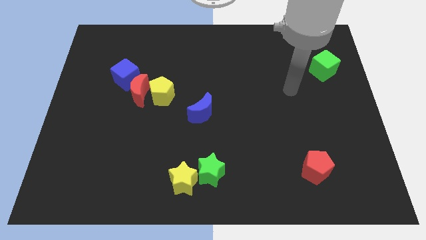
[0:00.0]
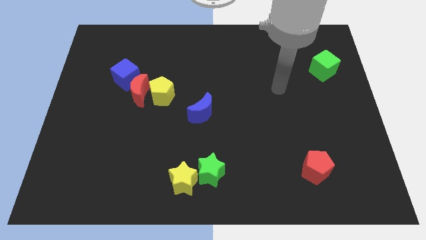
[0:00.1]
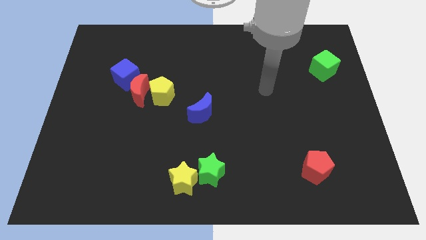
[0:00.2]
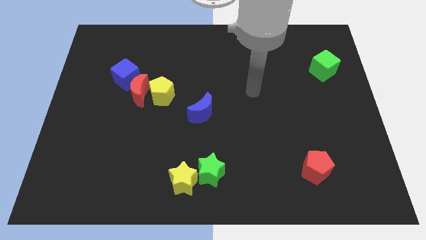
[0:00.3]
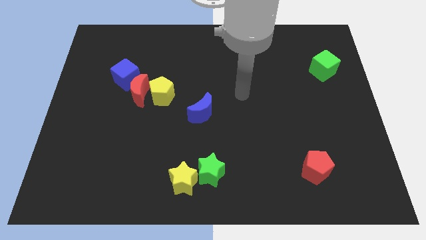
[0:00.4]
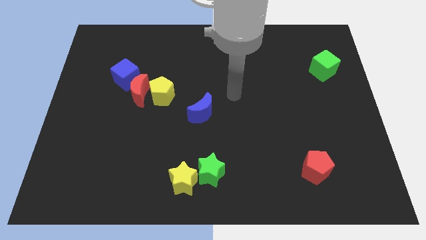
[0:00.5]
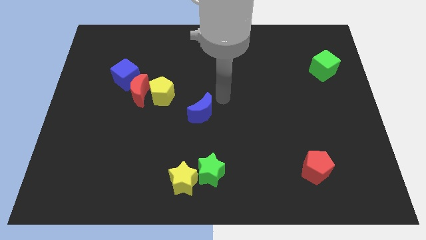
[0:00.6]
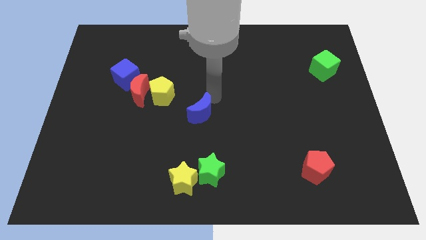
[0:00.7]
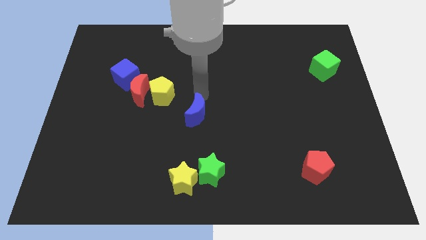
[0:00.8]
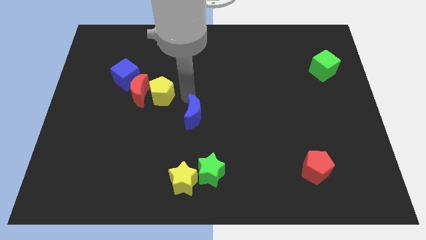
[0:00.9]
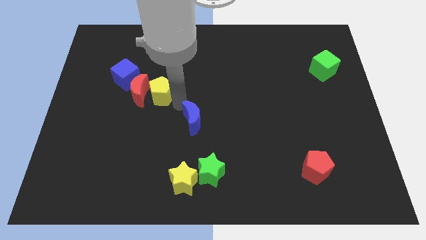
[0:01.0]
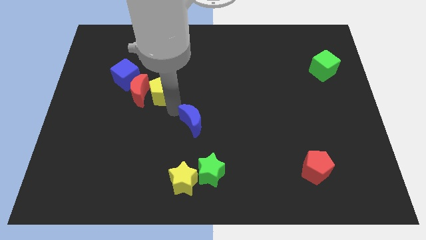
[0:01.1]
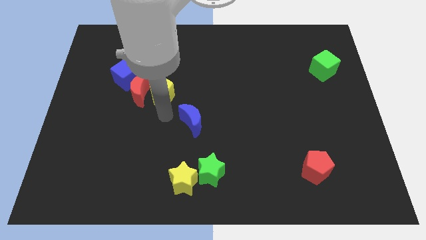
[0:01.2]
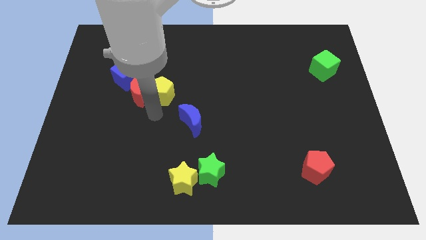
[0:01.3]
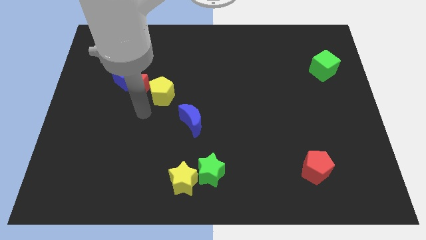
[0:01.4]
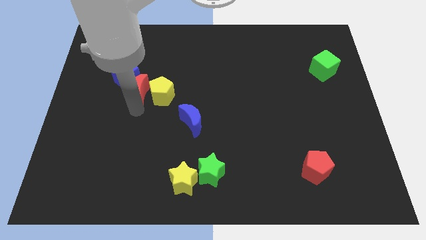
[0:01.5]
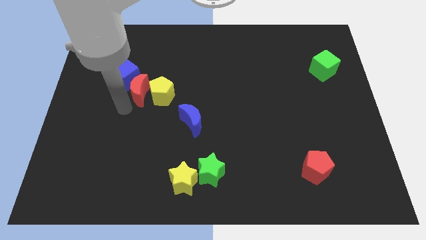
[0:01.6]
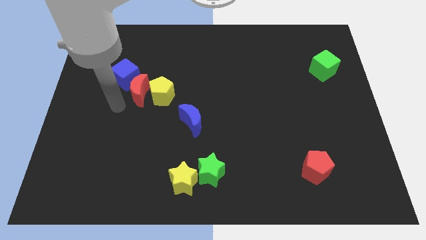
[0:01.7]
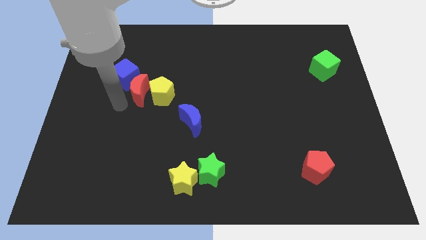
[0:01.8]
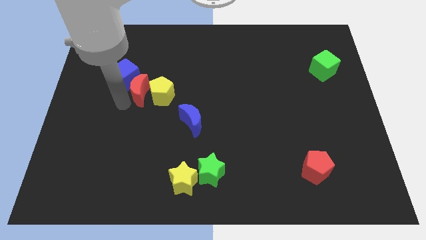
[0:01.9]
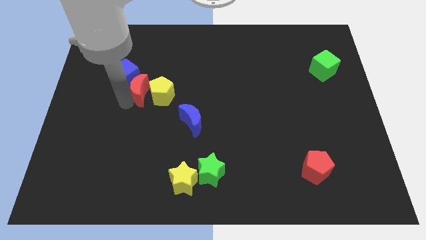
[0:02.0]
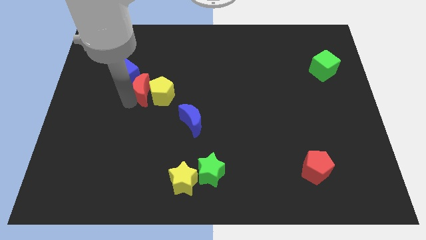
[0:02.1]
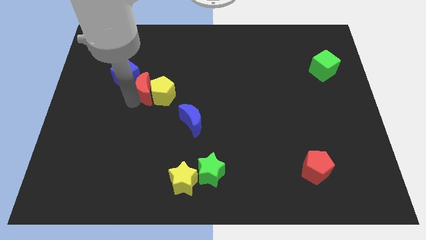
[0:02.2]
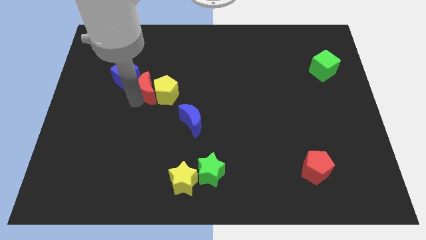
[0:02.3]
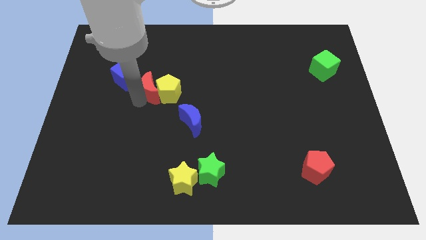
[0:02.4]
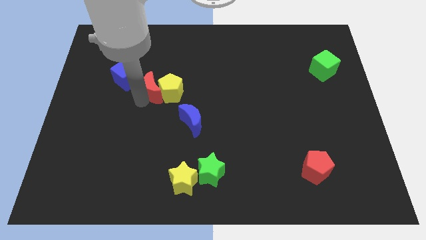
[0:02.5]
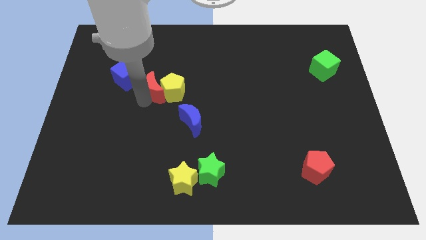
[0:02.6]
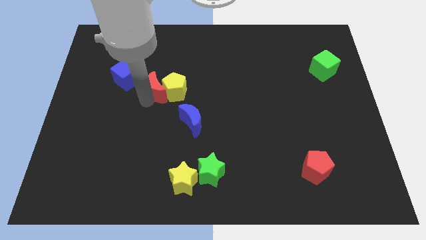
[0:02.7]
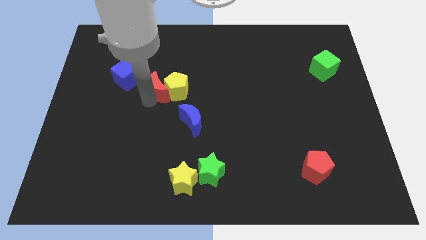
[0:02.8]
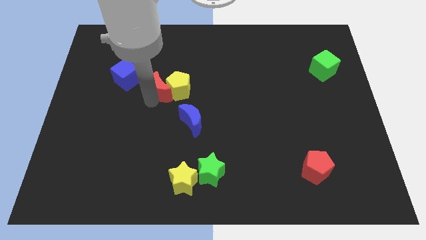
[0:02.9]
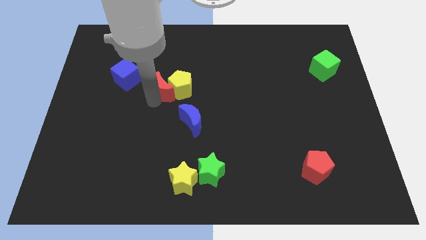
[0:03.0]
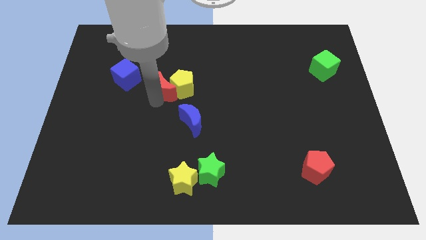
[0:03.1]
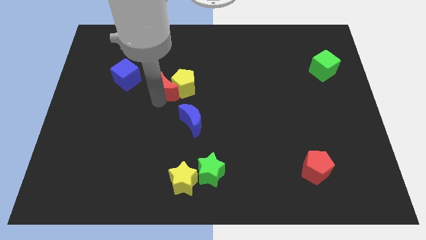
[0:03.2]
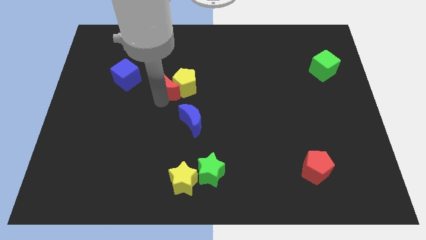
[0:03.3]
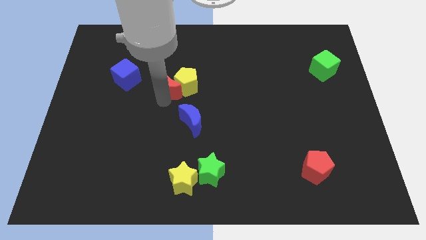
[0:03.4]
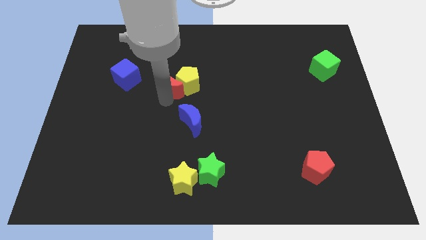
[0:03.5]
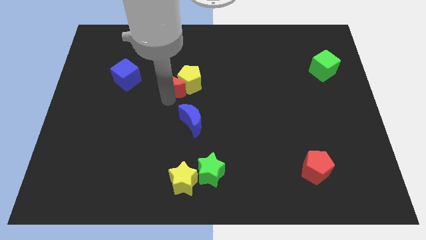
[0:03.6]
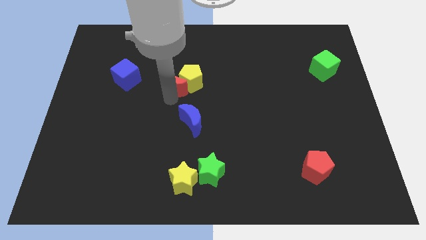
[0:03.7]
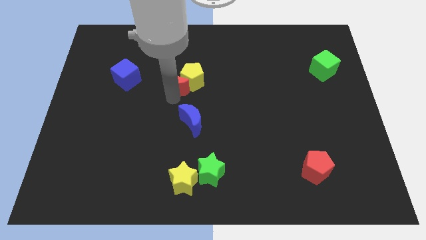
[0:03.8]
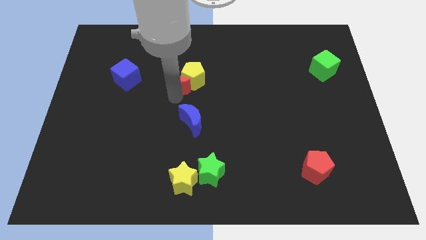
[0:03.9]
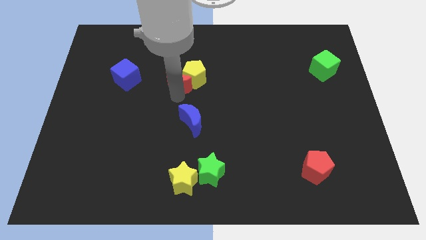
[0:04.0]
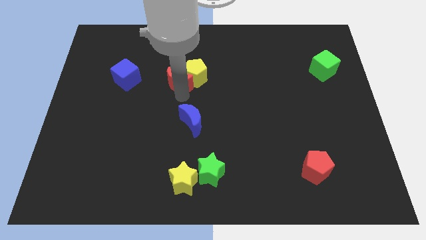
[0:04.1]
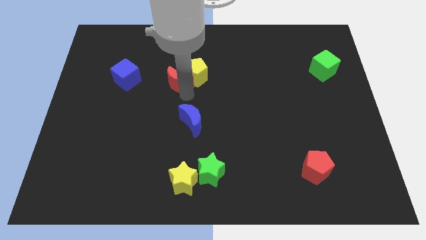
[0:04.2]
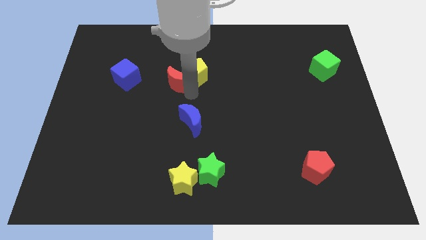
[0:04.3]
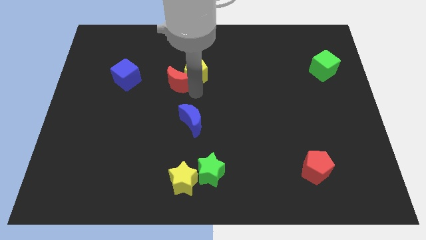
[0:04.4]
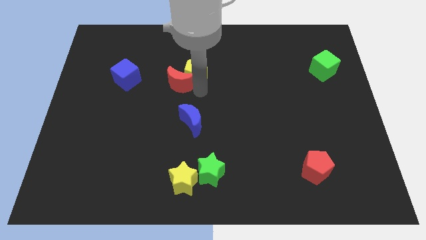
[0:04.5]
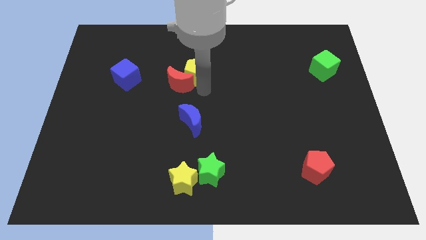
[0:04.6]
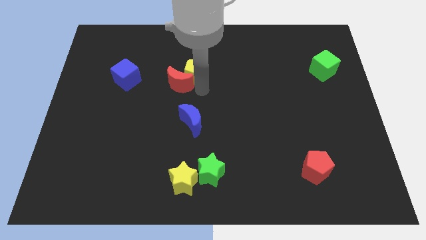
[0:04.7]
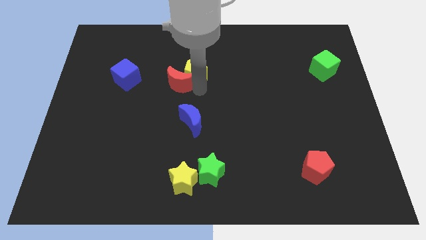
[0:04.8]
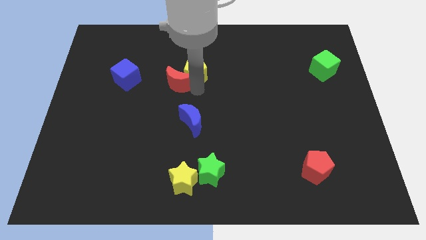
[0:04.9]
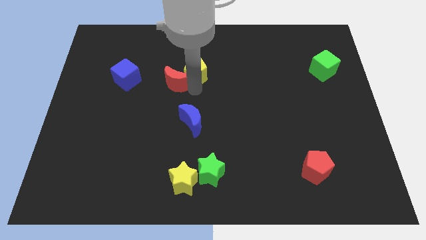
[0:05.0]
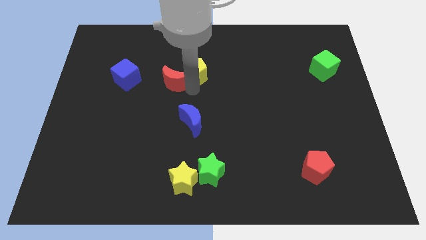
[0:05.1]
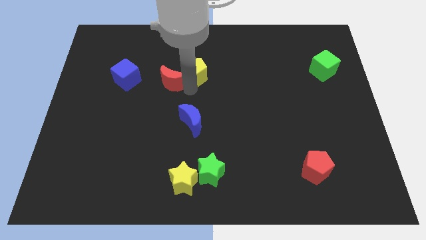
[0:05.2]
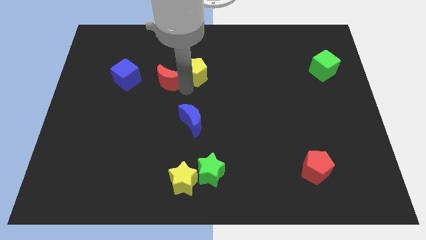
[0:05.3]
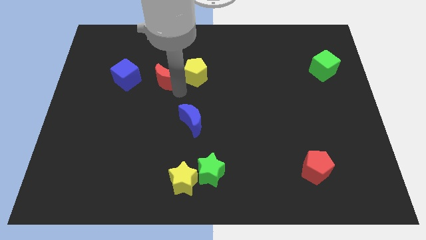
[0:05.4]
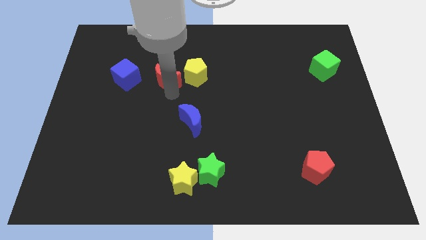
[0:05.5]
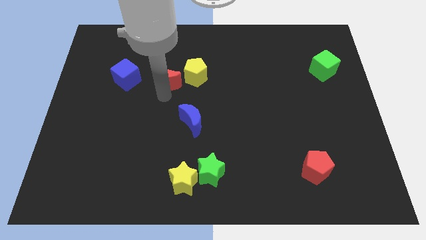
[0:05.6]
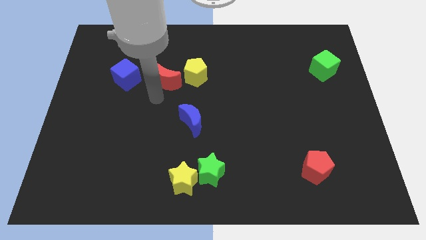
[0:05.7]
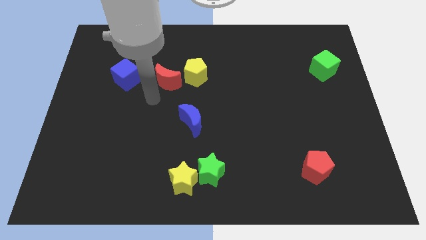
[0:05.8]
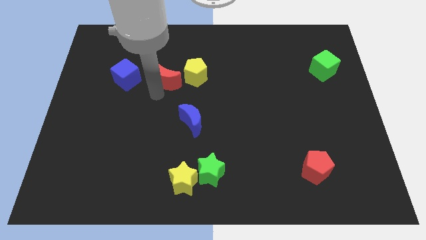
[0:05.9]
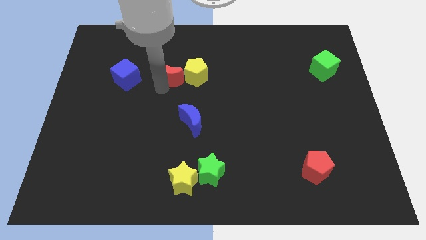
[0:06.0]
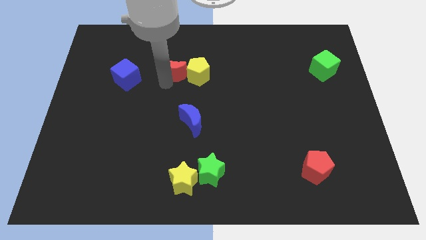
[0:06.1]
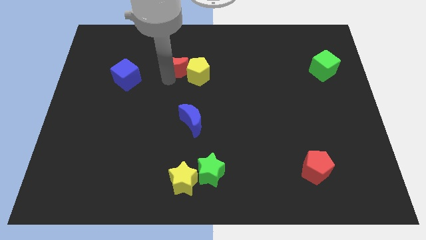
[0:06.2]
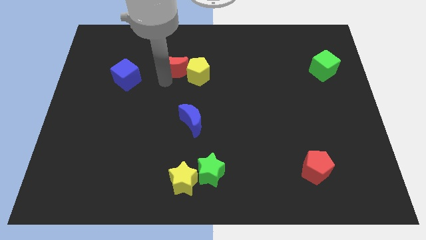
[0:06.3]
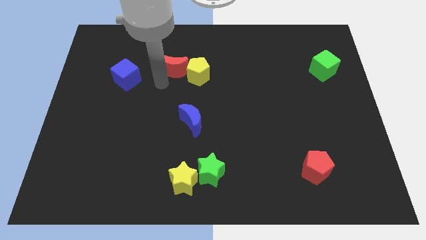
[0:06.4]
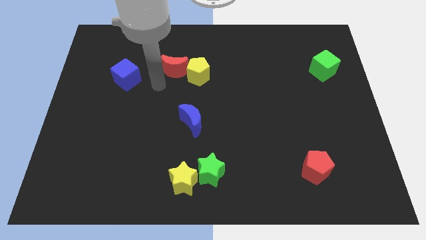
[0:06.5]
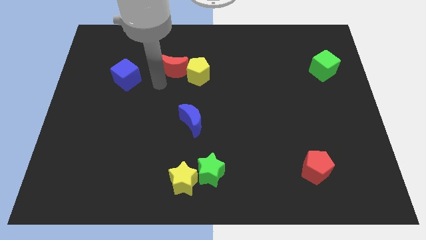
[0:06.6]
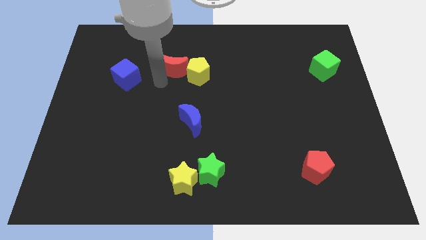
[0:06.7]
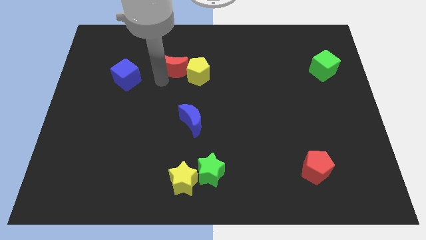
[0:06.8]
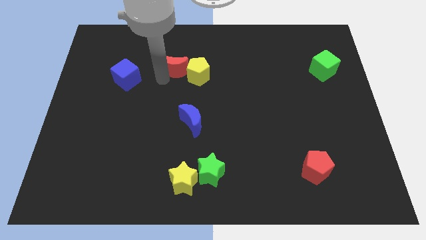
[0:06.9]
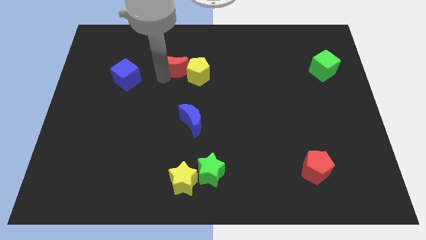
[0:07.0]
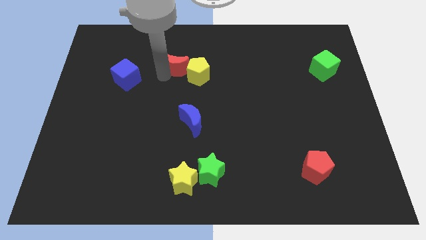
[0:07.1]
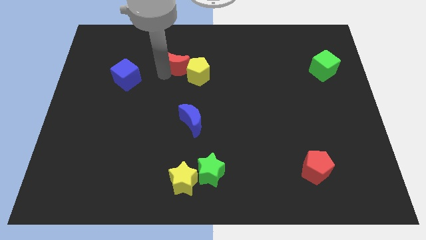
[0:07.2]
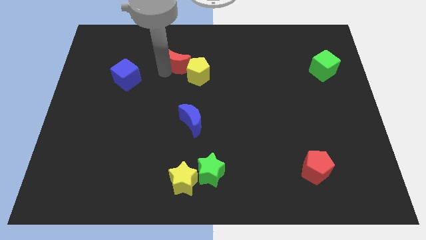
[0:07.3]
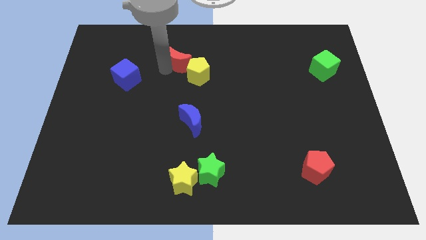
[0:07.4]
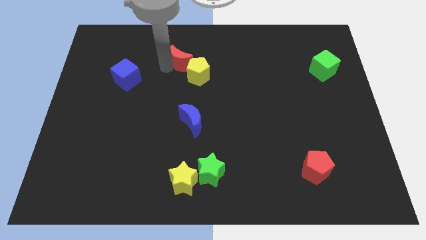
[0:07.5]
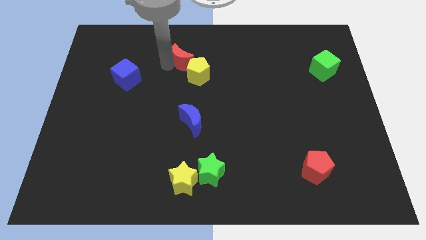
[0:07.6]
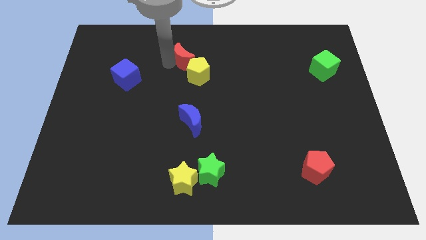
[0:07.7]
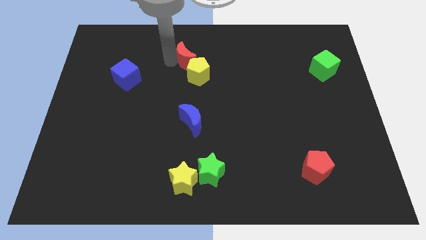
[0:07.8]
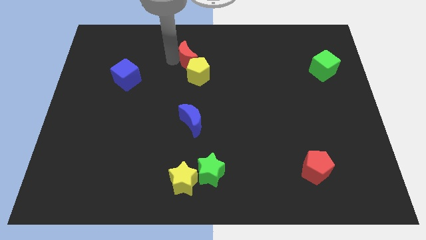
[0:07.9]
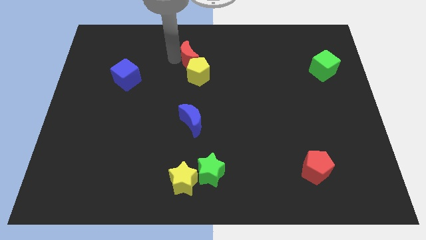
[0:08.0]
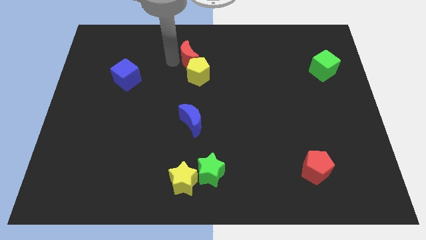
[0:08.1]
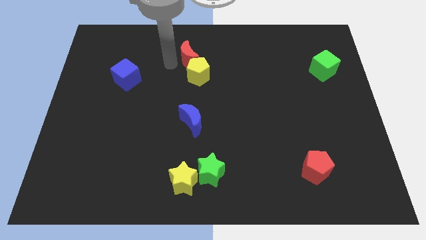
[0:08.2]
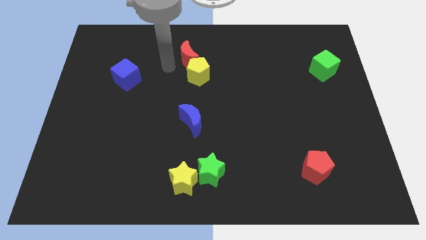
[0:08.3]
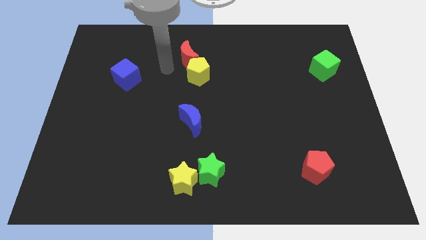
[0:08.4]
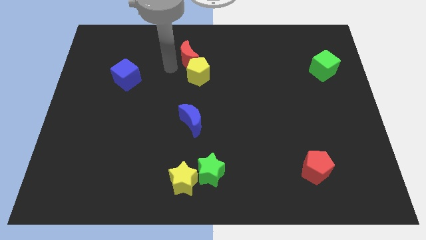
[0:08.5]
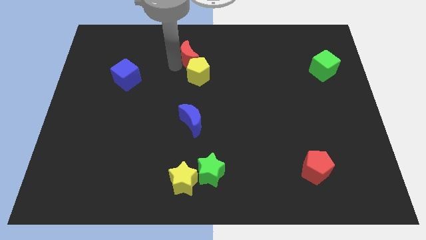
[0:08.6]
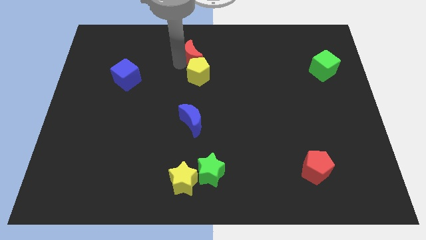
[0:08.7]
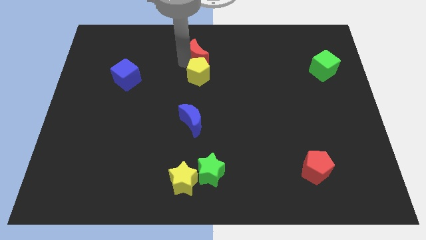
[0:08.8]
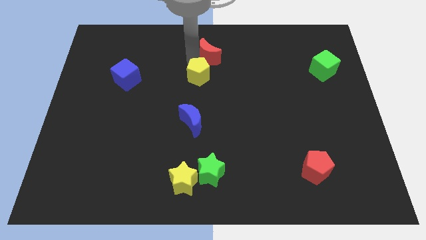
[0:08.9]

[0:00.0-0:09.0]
push the red moon to the top
